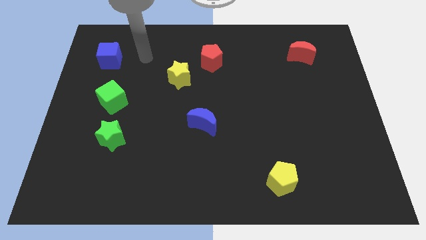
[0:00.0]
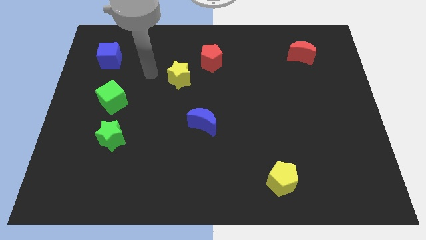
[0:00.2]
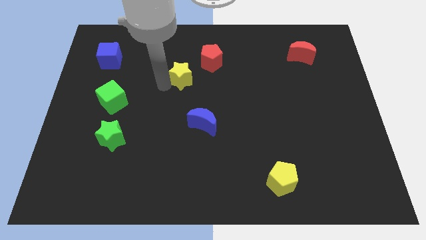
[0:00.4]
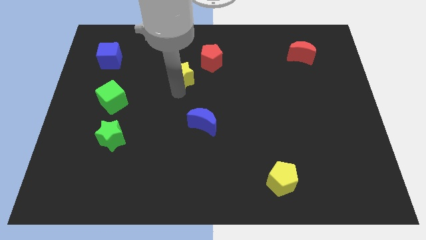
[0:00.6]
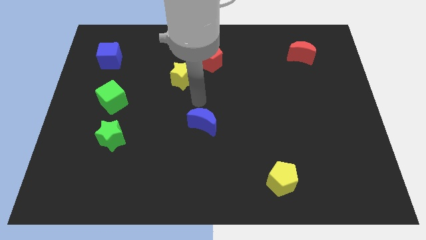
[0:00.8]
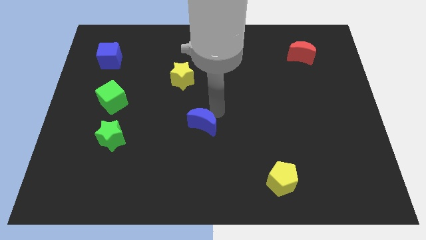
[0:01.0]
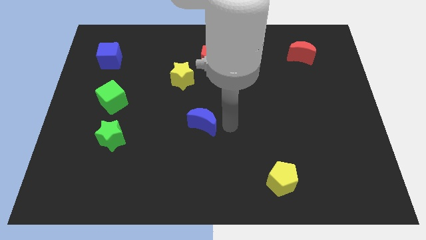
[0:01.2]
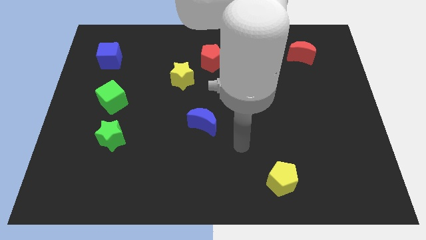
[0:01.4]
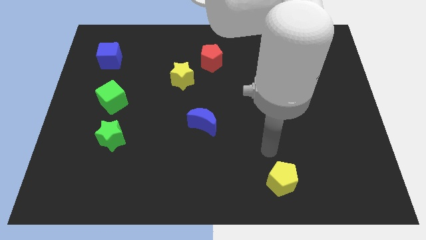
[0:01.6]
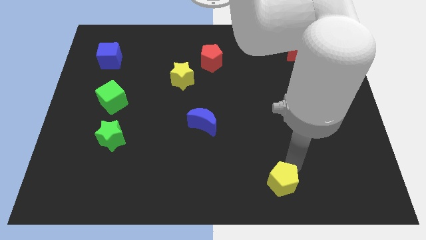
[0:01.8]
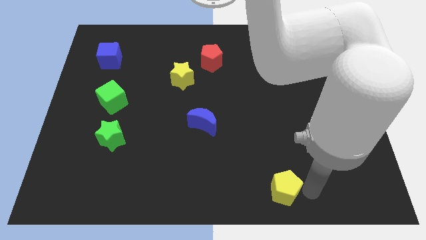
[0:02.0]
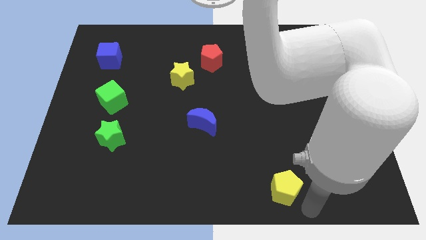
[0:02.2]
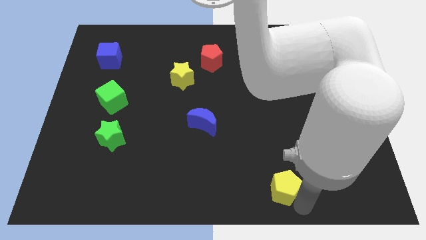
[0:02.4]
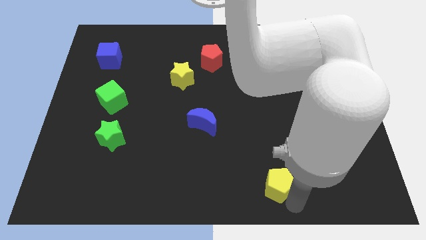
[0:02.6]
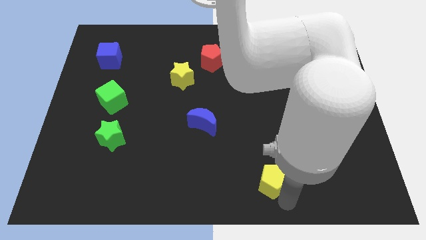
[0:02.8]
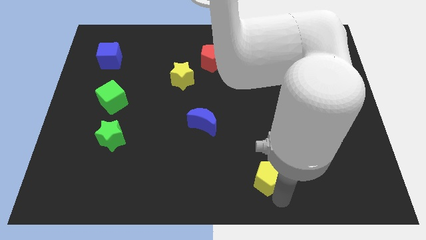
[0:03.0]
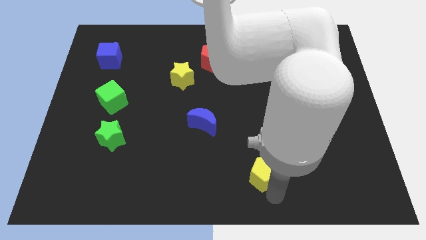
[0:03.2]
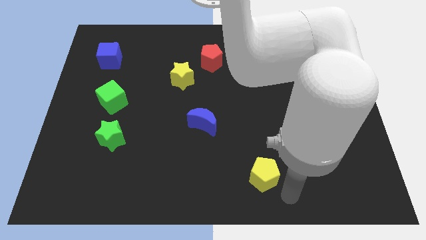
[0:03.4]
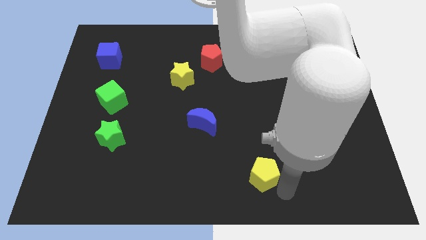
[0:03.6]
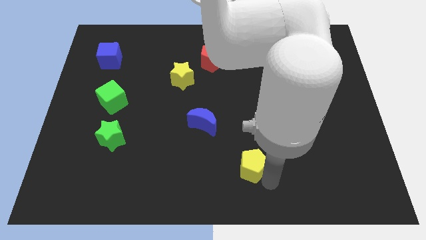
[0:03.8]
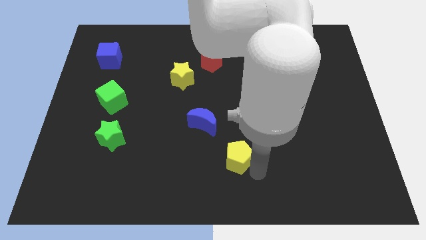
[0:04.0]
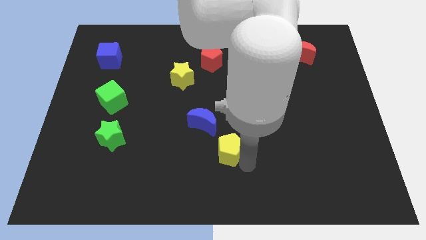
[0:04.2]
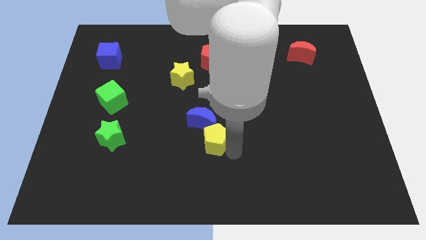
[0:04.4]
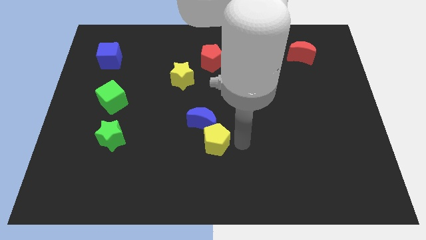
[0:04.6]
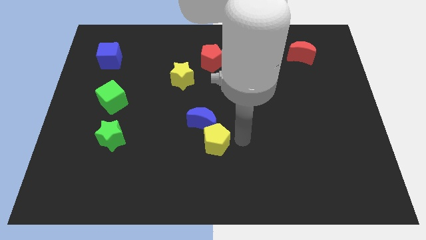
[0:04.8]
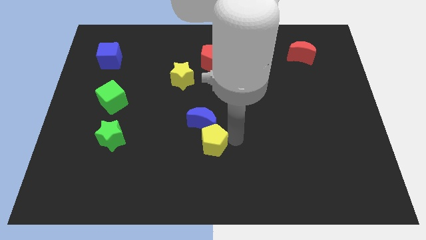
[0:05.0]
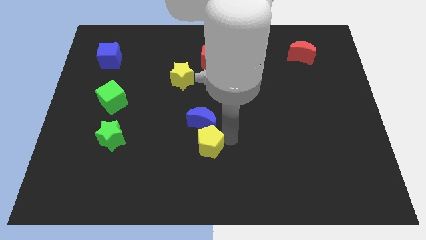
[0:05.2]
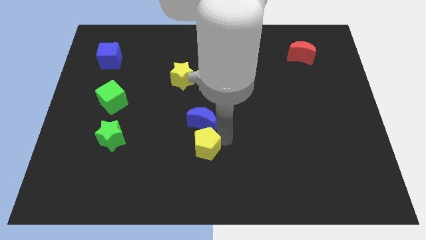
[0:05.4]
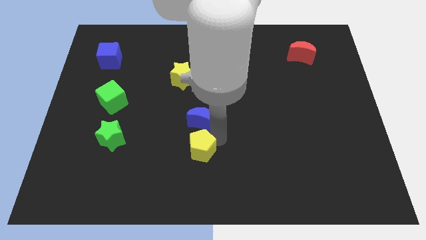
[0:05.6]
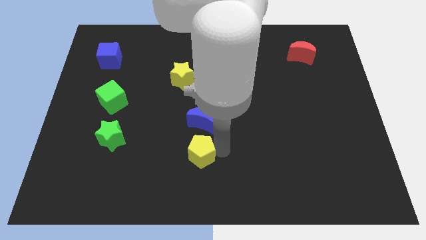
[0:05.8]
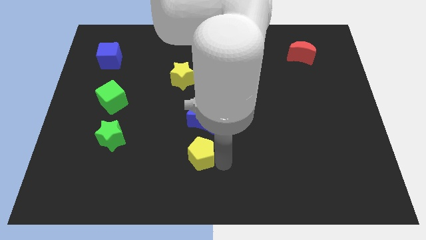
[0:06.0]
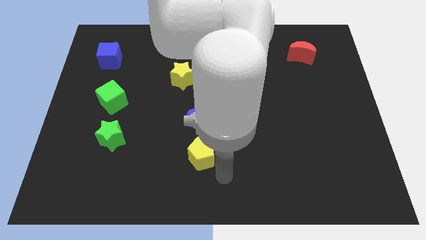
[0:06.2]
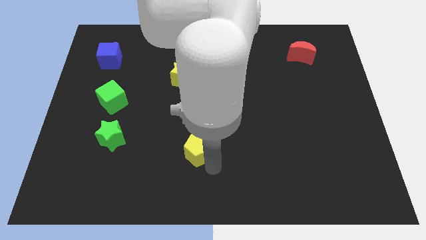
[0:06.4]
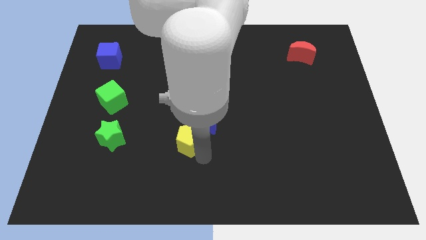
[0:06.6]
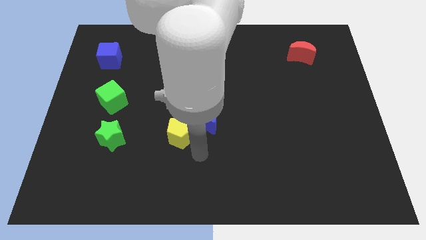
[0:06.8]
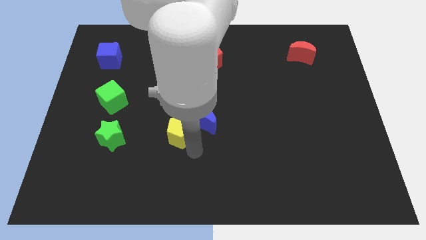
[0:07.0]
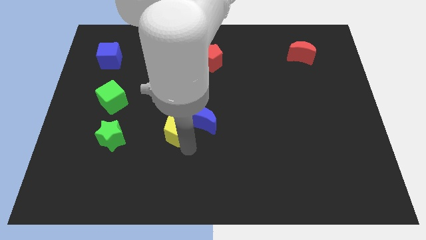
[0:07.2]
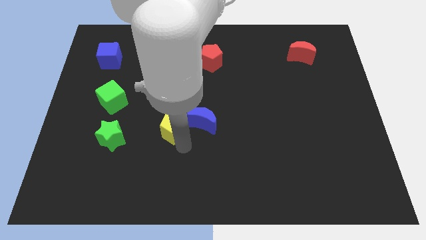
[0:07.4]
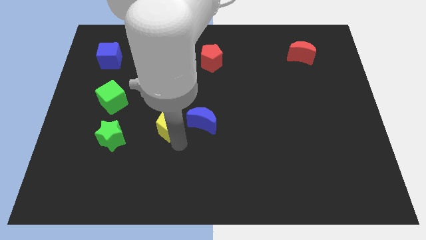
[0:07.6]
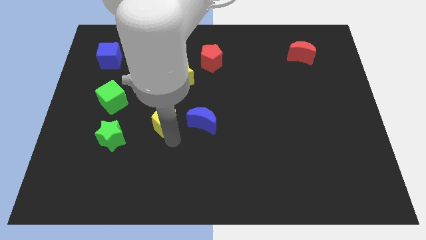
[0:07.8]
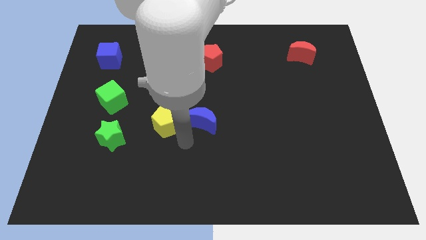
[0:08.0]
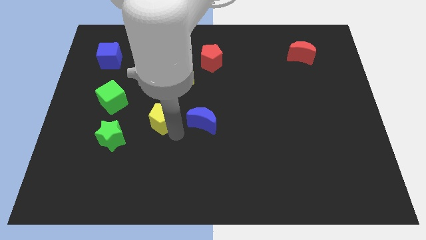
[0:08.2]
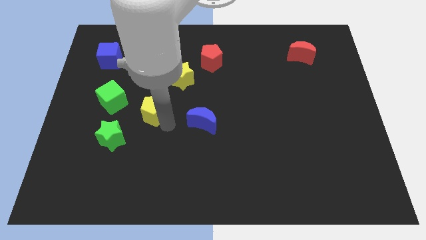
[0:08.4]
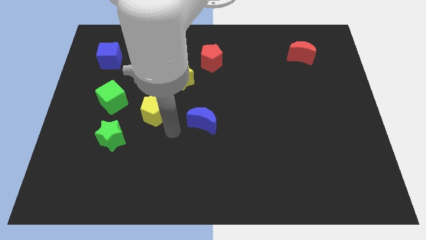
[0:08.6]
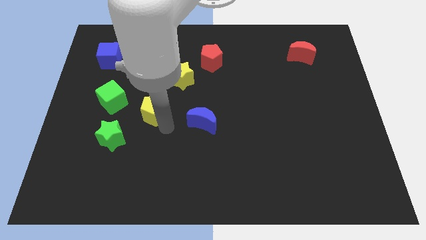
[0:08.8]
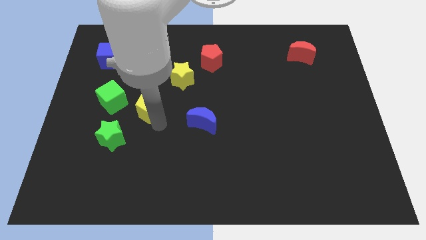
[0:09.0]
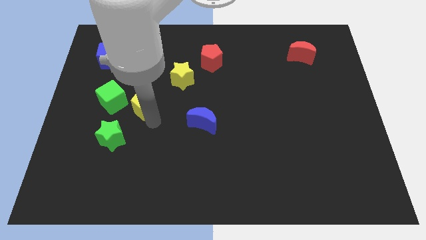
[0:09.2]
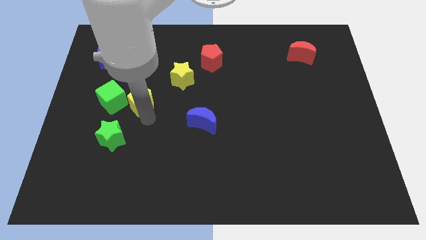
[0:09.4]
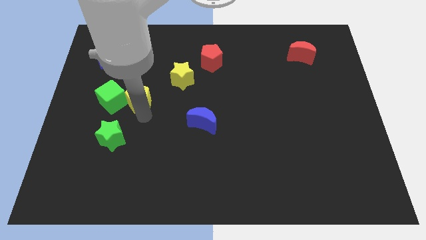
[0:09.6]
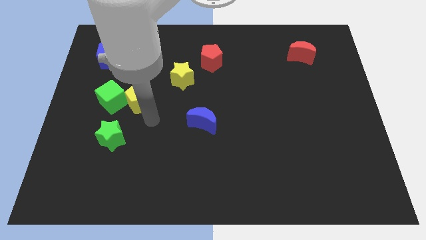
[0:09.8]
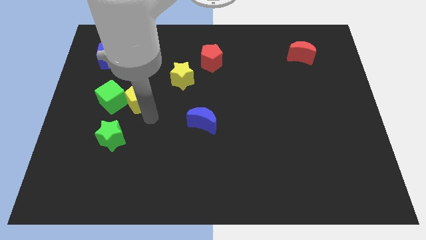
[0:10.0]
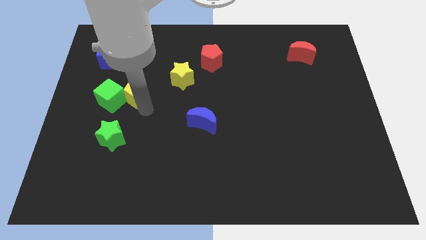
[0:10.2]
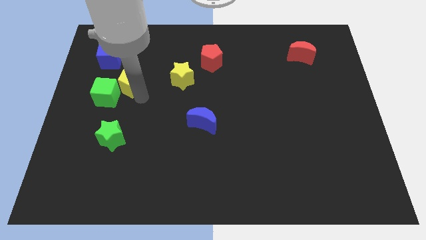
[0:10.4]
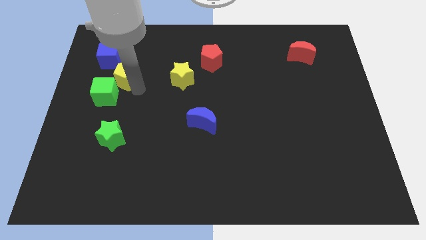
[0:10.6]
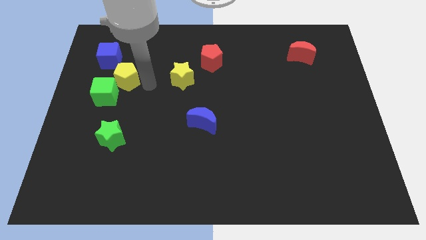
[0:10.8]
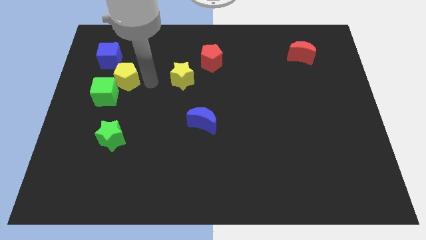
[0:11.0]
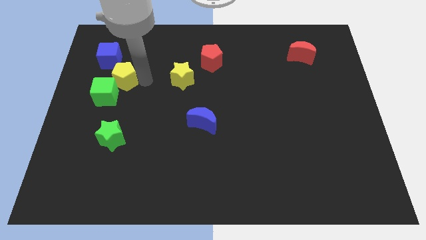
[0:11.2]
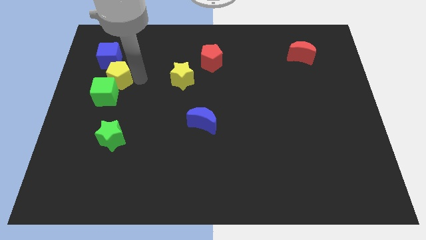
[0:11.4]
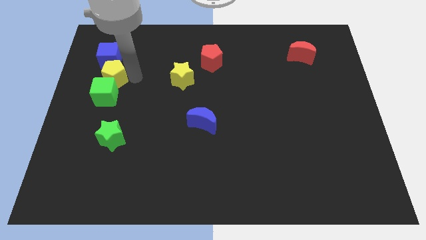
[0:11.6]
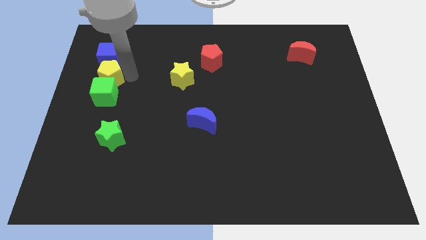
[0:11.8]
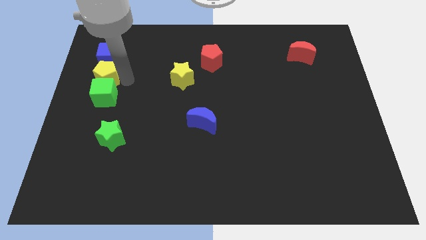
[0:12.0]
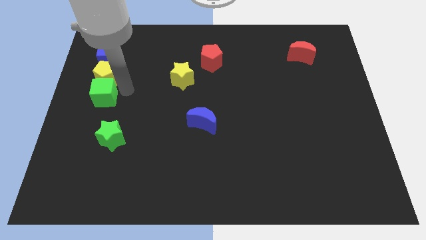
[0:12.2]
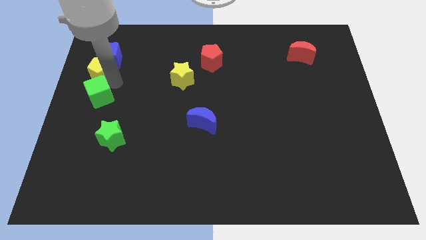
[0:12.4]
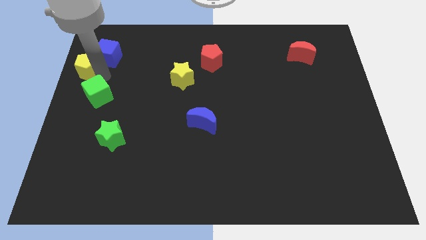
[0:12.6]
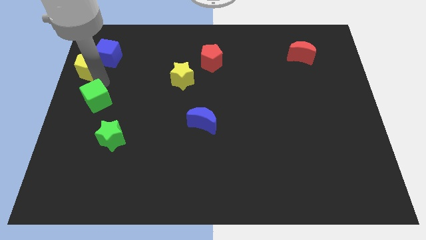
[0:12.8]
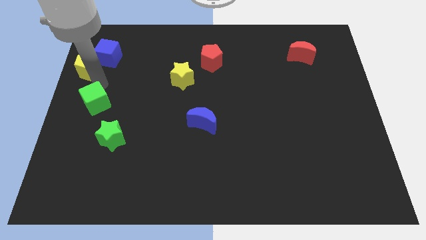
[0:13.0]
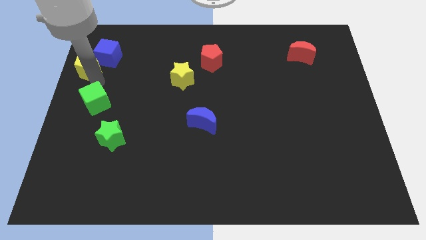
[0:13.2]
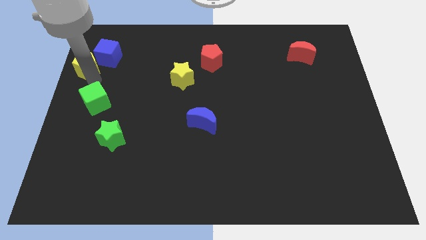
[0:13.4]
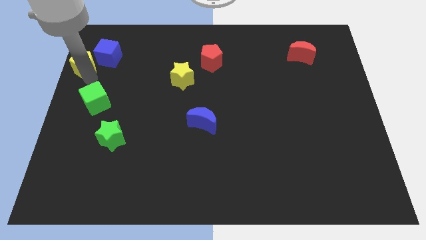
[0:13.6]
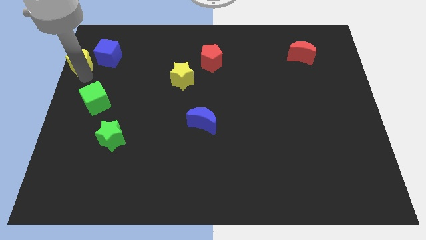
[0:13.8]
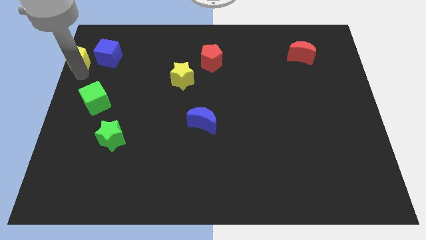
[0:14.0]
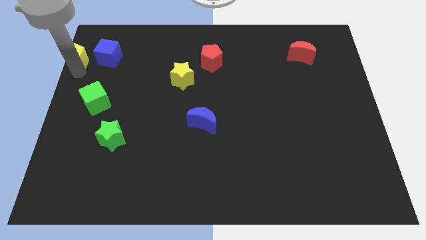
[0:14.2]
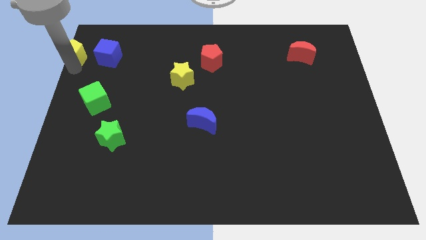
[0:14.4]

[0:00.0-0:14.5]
put the yellow pentagon to the top left
